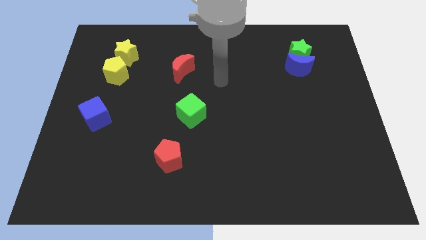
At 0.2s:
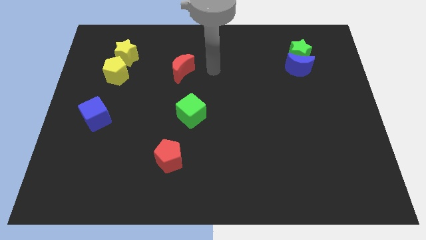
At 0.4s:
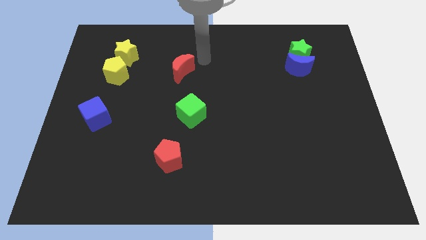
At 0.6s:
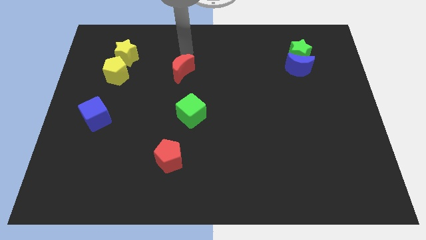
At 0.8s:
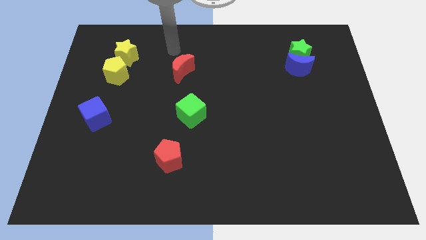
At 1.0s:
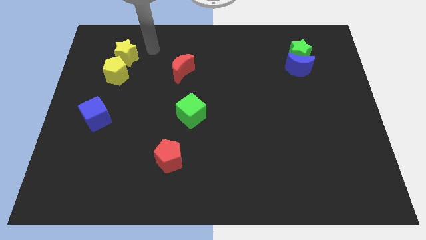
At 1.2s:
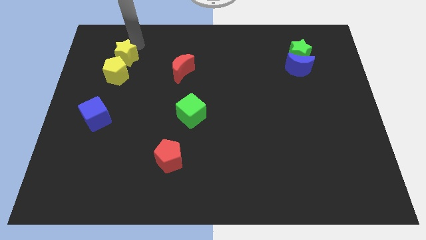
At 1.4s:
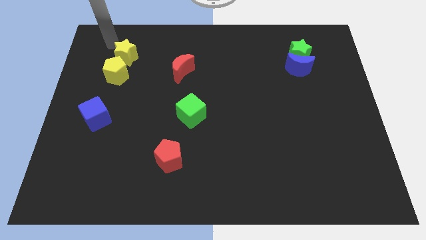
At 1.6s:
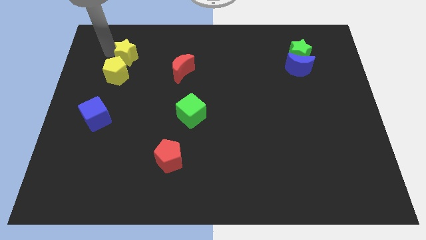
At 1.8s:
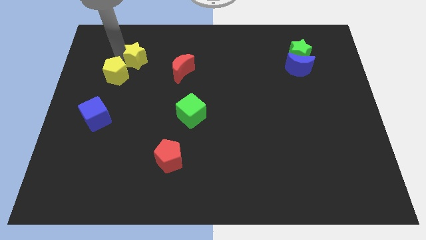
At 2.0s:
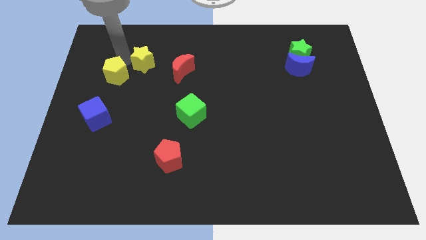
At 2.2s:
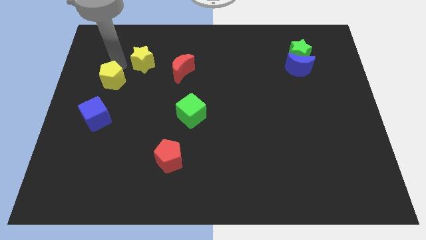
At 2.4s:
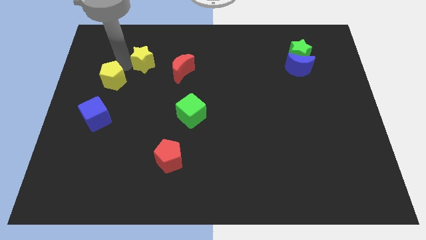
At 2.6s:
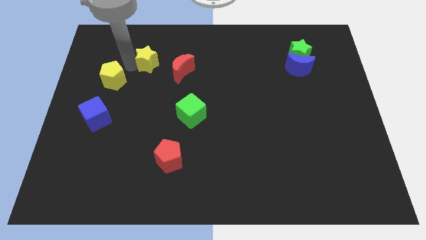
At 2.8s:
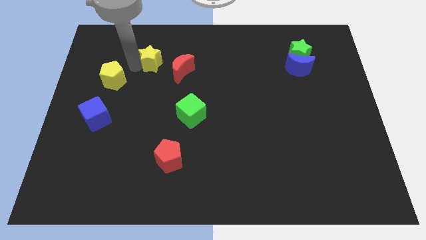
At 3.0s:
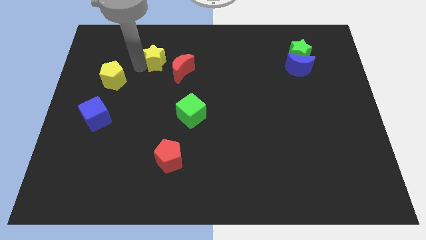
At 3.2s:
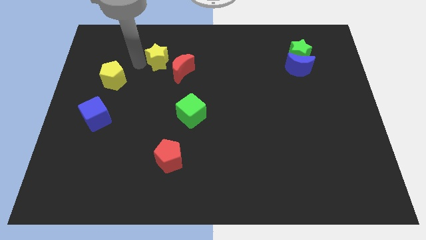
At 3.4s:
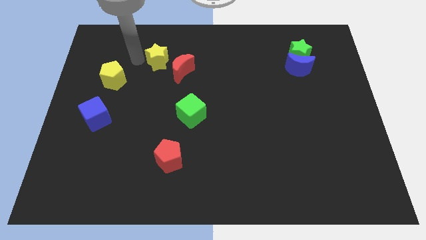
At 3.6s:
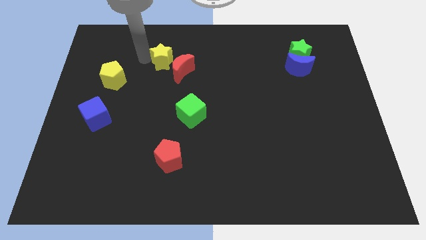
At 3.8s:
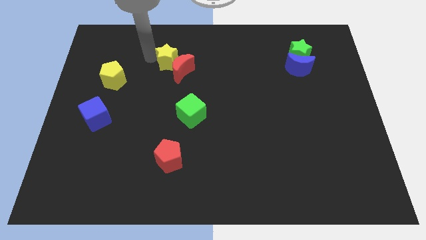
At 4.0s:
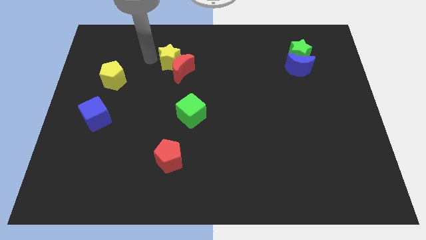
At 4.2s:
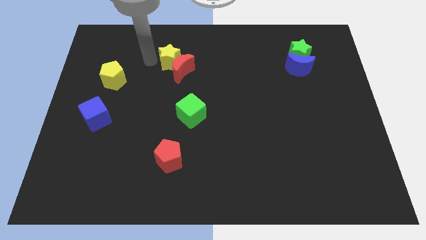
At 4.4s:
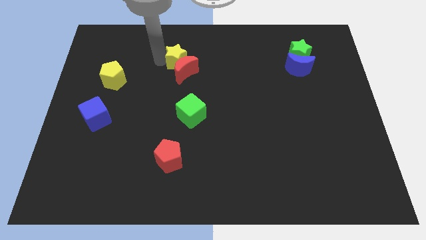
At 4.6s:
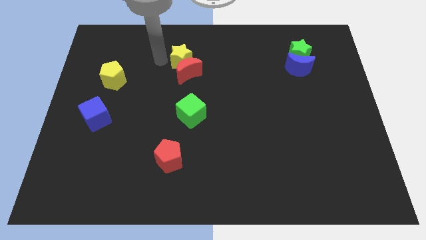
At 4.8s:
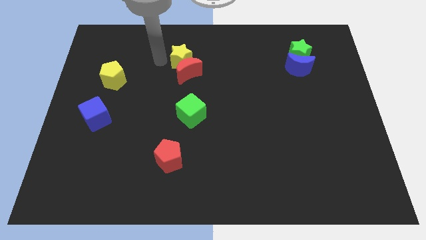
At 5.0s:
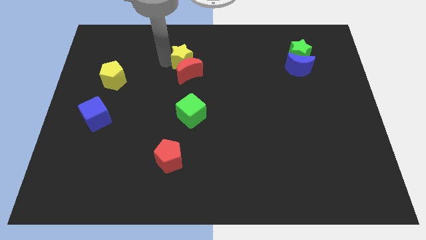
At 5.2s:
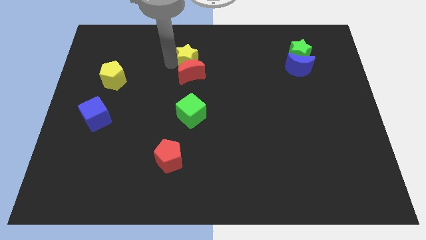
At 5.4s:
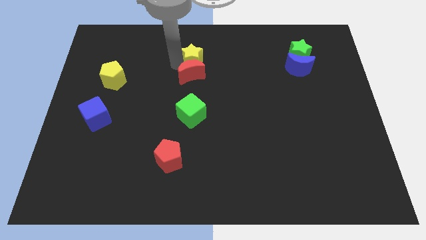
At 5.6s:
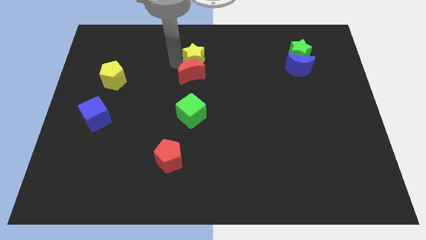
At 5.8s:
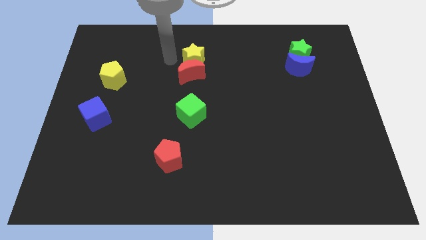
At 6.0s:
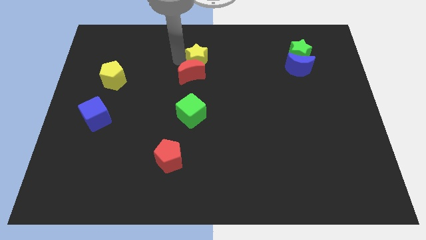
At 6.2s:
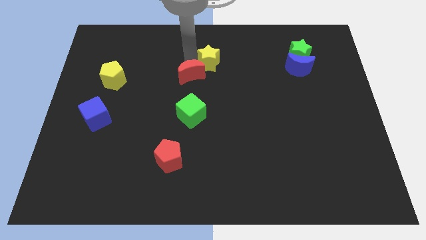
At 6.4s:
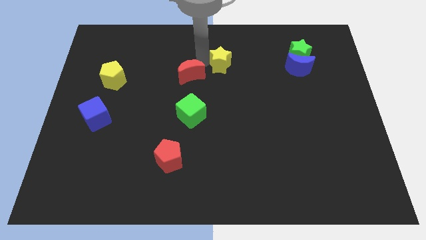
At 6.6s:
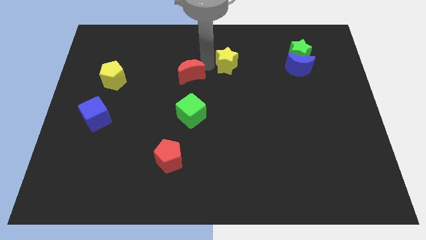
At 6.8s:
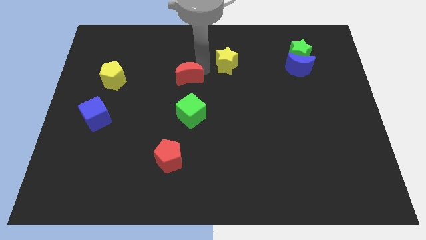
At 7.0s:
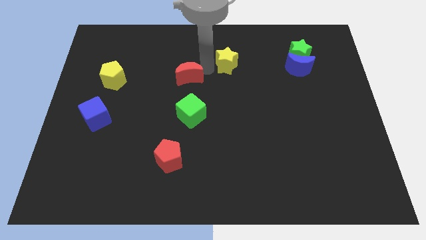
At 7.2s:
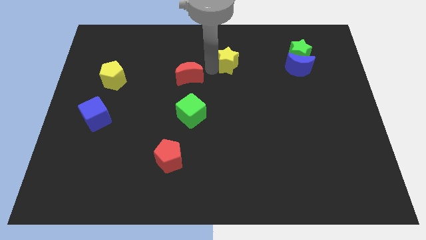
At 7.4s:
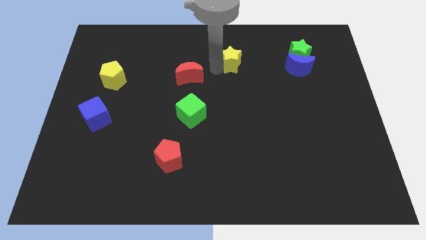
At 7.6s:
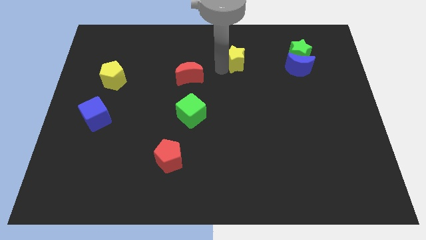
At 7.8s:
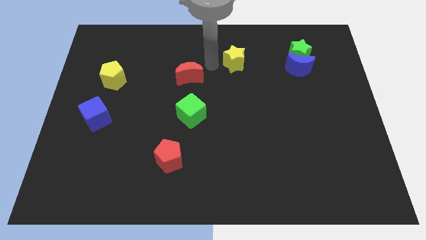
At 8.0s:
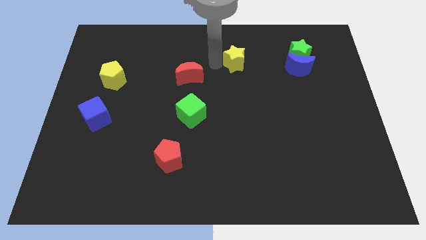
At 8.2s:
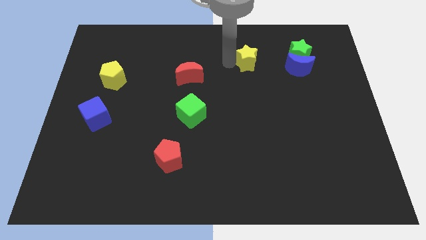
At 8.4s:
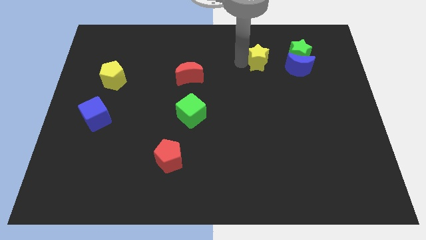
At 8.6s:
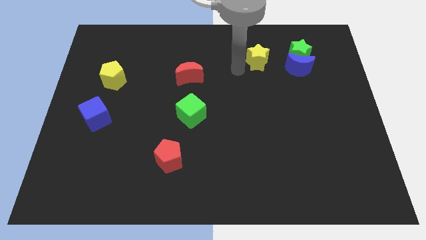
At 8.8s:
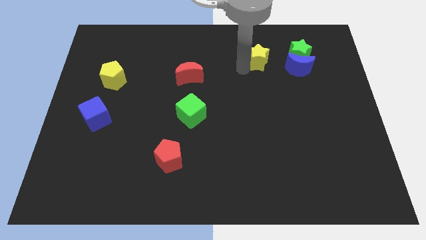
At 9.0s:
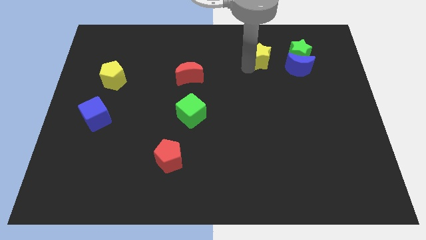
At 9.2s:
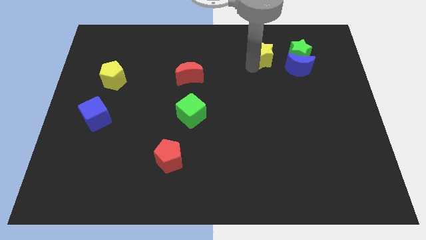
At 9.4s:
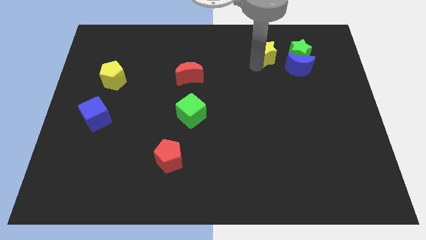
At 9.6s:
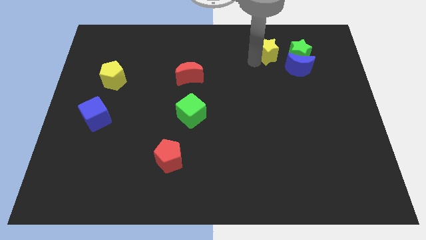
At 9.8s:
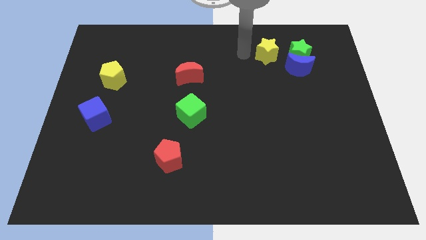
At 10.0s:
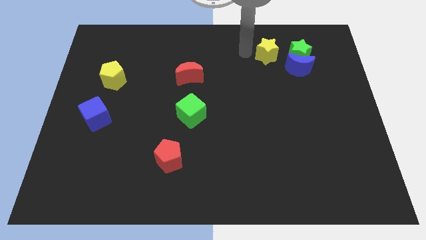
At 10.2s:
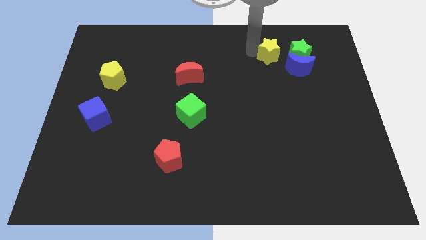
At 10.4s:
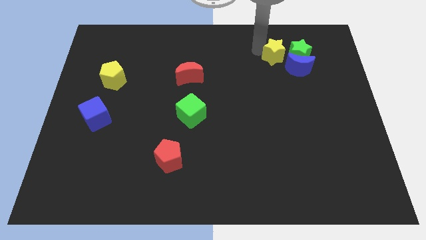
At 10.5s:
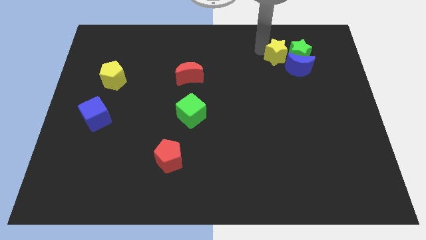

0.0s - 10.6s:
push the yellow star close to the green star

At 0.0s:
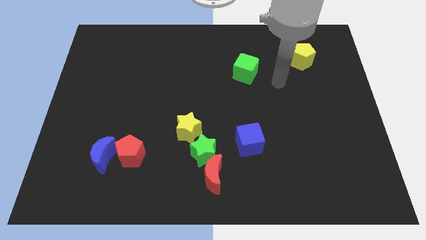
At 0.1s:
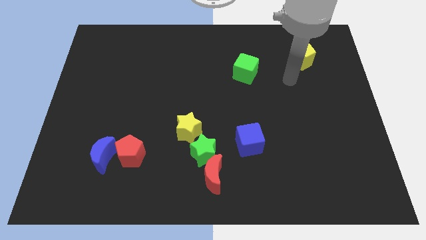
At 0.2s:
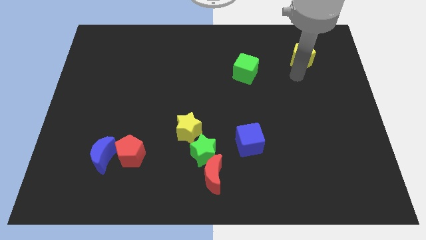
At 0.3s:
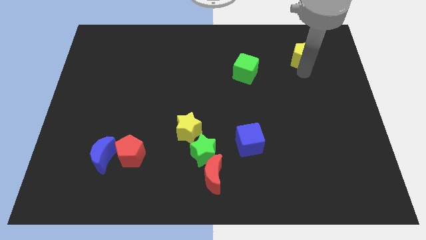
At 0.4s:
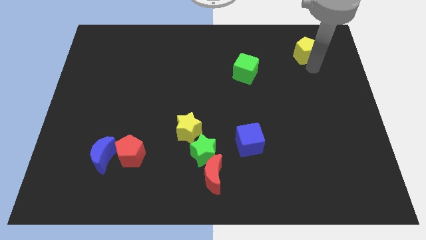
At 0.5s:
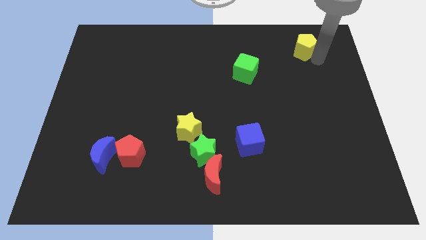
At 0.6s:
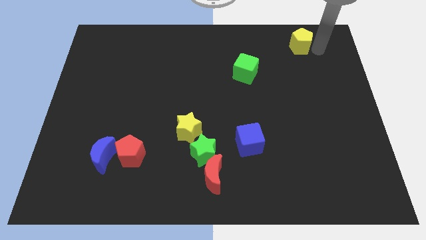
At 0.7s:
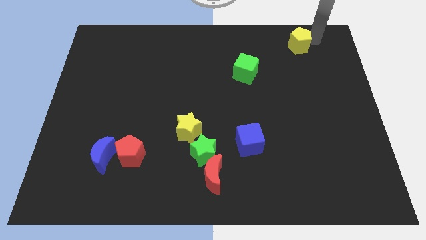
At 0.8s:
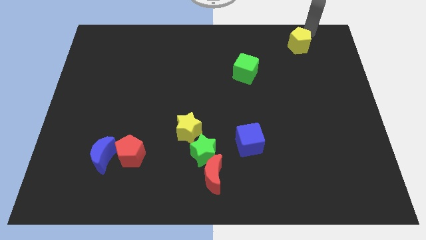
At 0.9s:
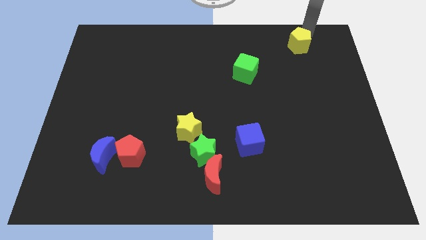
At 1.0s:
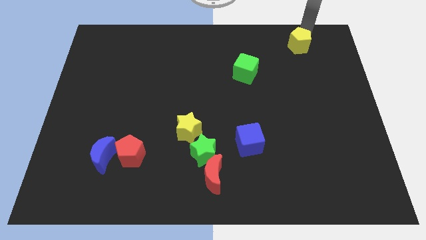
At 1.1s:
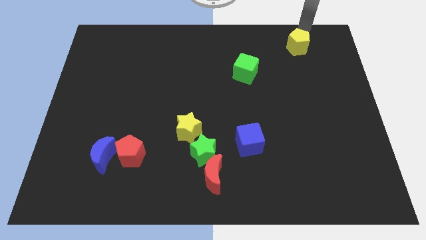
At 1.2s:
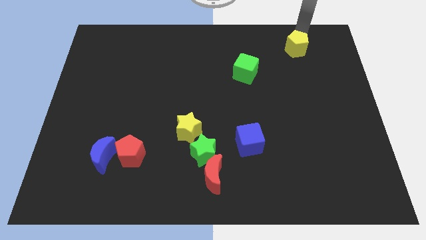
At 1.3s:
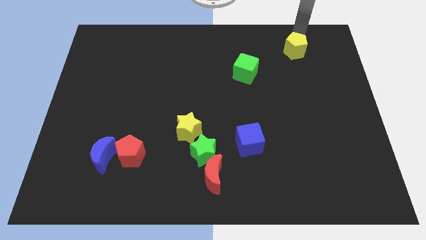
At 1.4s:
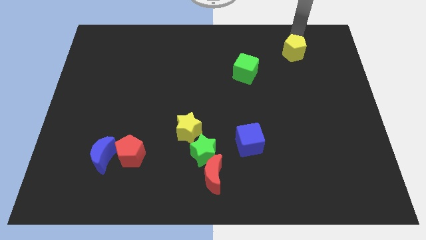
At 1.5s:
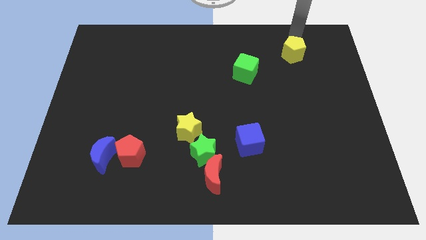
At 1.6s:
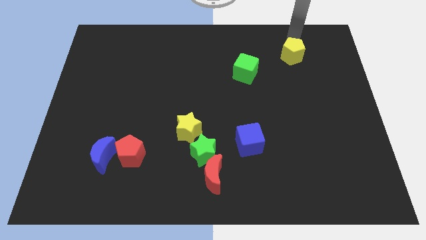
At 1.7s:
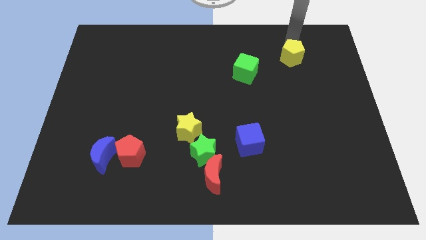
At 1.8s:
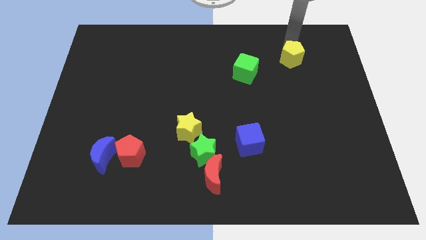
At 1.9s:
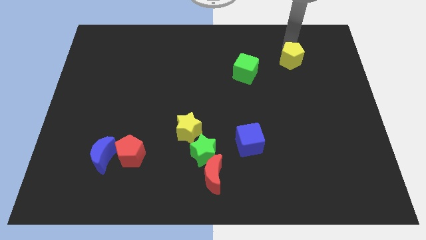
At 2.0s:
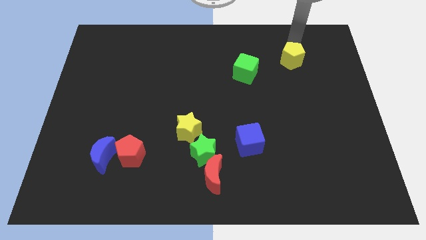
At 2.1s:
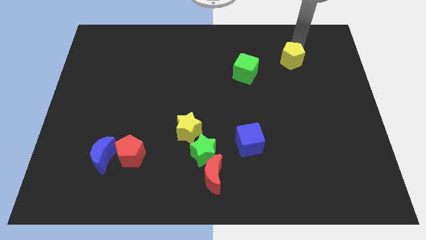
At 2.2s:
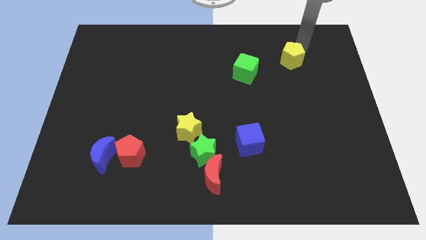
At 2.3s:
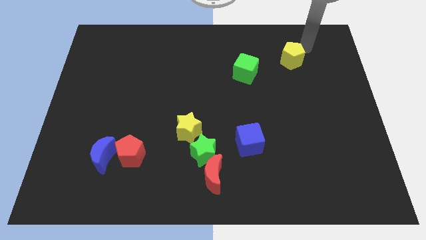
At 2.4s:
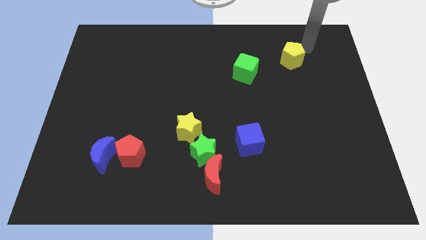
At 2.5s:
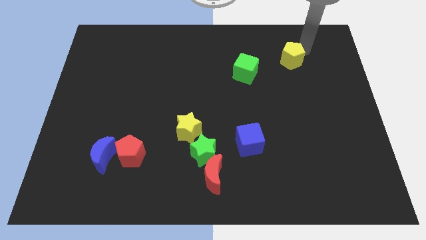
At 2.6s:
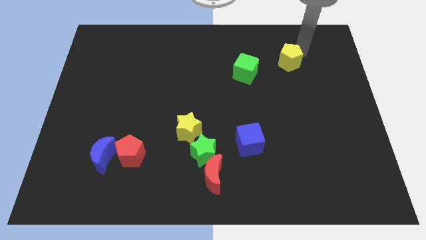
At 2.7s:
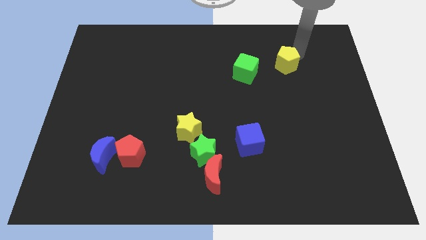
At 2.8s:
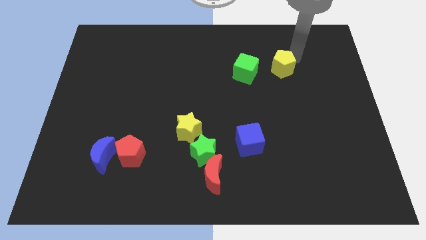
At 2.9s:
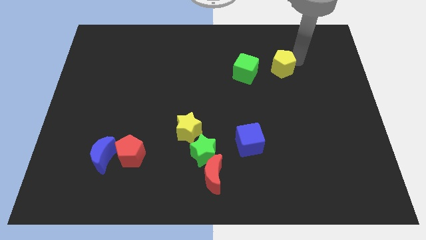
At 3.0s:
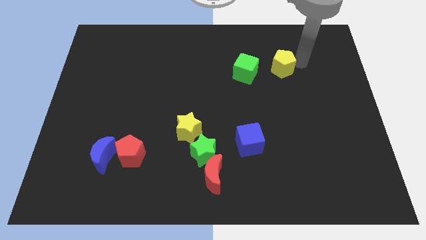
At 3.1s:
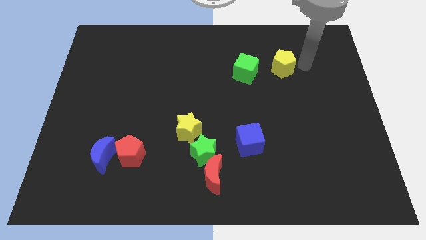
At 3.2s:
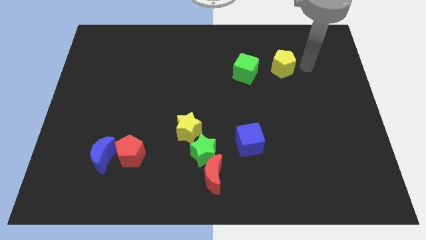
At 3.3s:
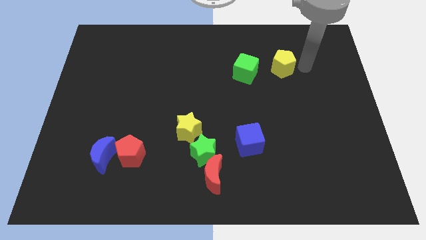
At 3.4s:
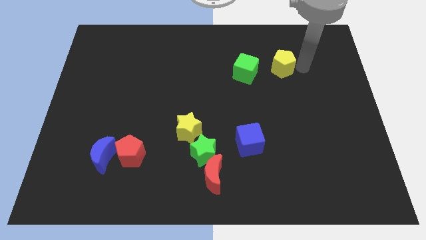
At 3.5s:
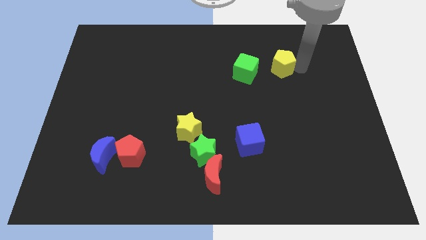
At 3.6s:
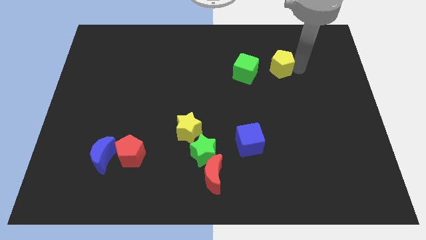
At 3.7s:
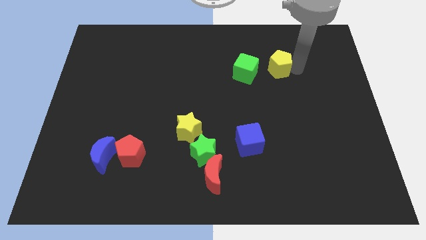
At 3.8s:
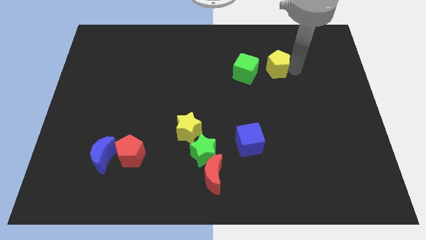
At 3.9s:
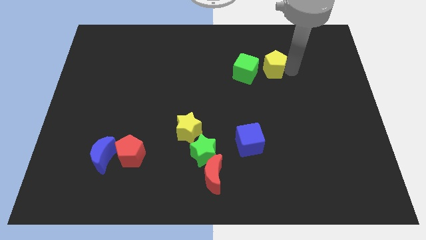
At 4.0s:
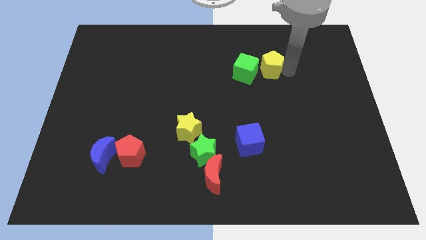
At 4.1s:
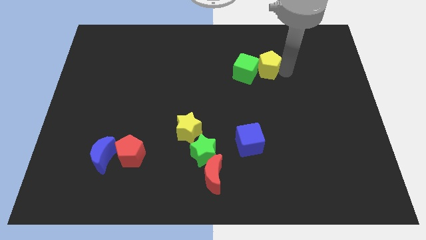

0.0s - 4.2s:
slide the yellow pentagon towards the green cube
